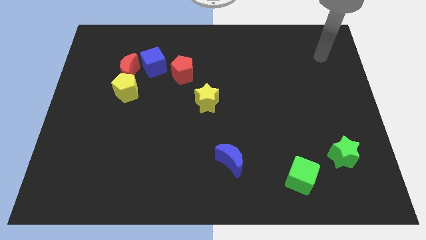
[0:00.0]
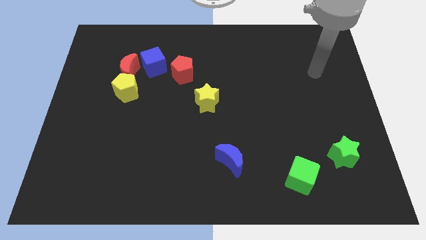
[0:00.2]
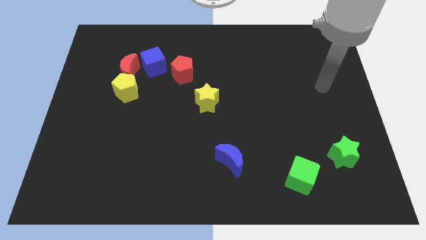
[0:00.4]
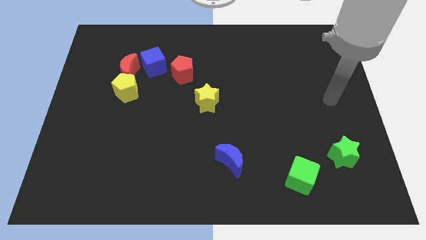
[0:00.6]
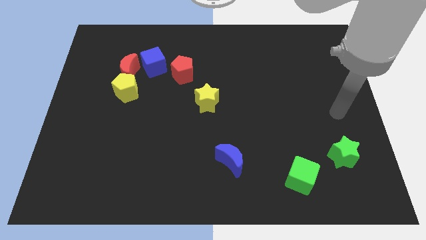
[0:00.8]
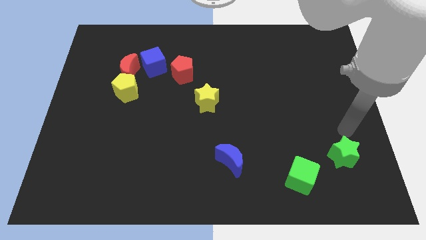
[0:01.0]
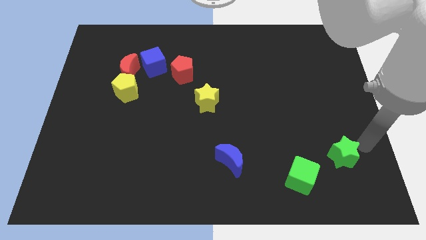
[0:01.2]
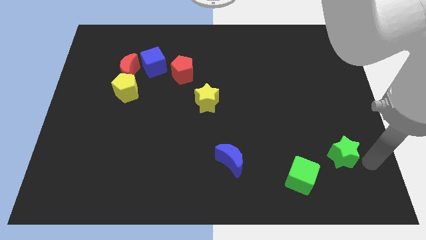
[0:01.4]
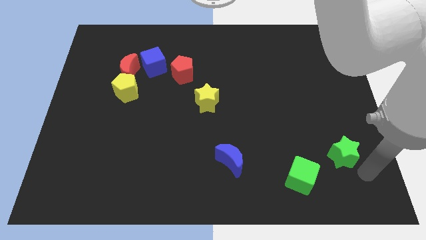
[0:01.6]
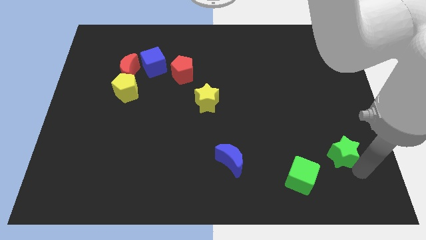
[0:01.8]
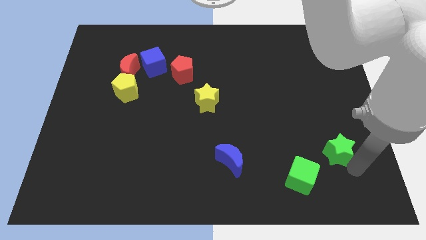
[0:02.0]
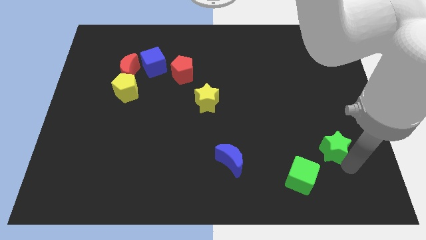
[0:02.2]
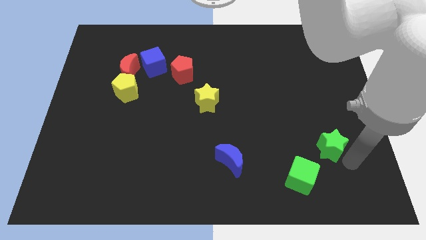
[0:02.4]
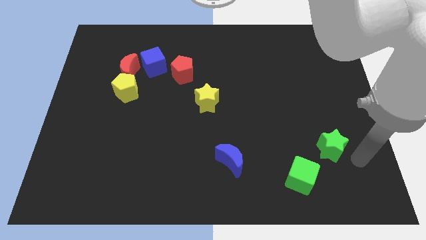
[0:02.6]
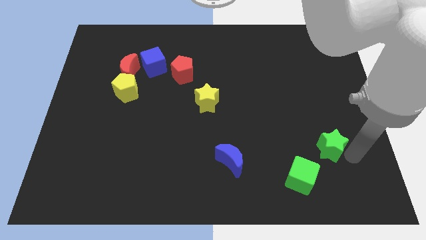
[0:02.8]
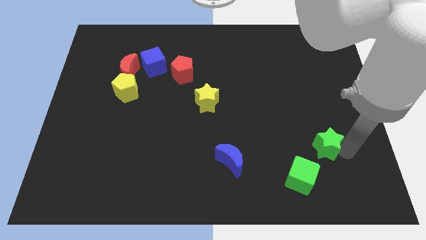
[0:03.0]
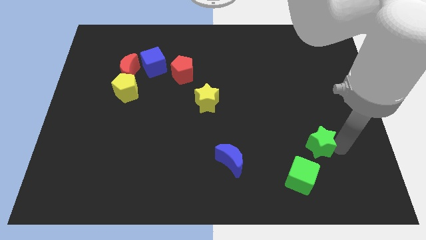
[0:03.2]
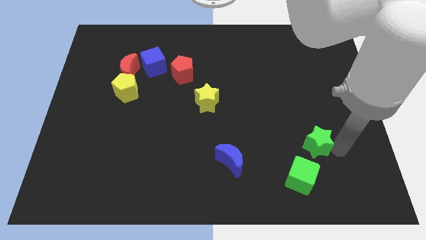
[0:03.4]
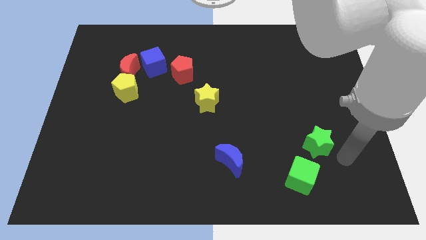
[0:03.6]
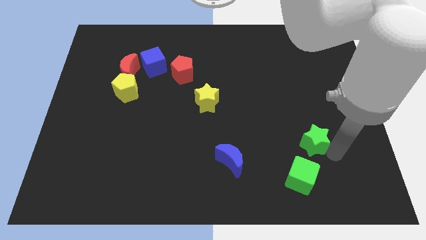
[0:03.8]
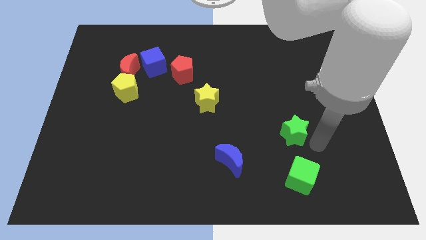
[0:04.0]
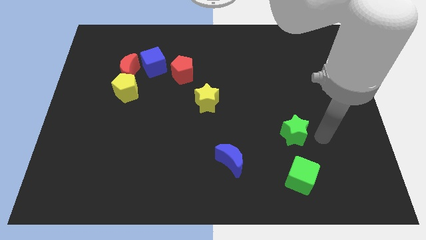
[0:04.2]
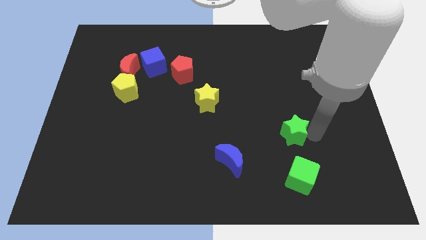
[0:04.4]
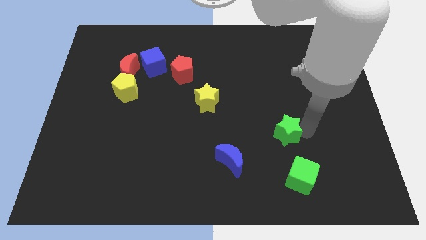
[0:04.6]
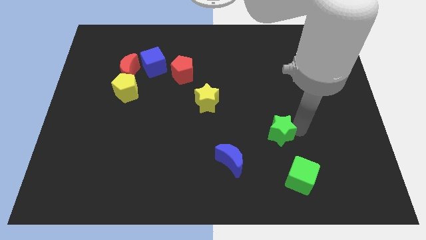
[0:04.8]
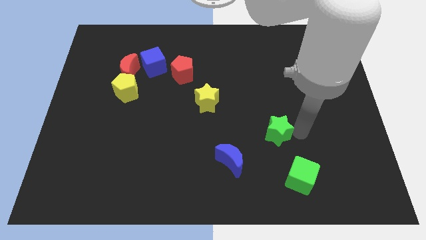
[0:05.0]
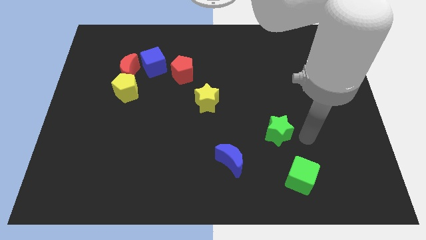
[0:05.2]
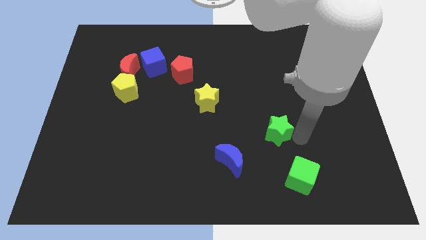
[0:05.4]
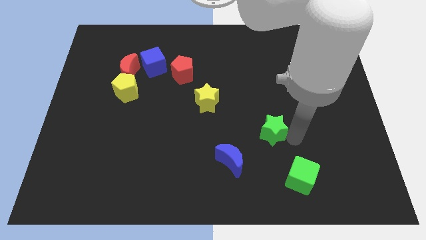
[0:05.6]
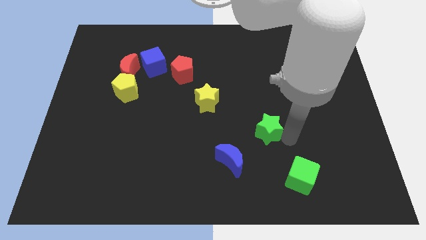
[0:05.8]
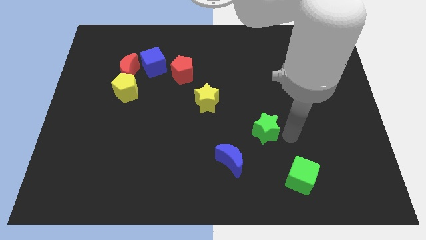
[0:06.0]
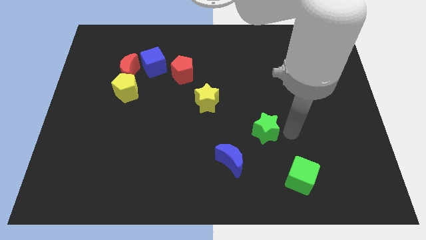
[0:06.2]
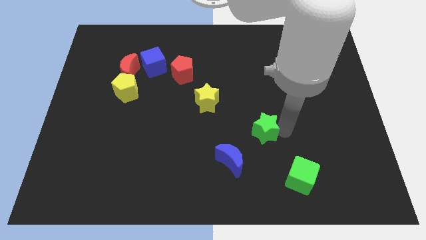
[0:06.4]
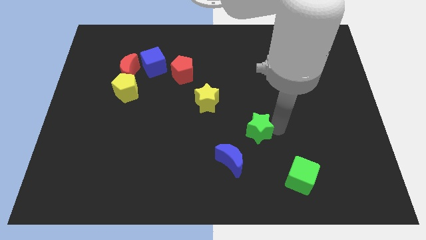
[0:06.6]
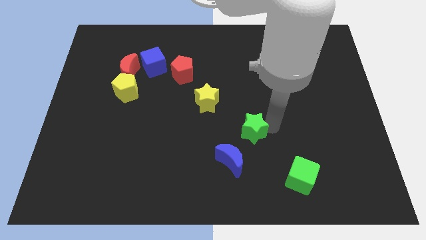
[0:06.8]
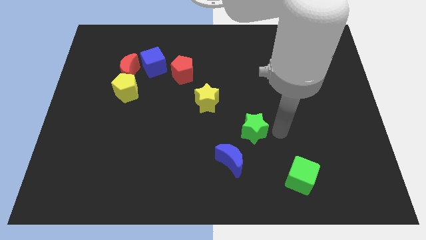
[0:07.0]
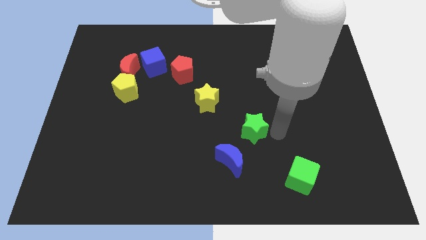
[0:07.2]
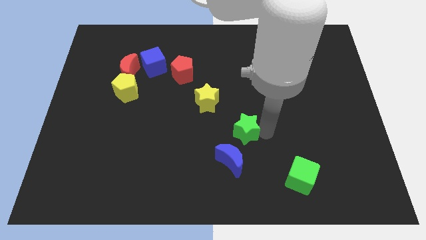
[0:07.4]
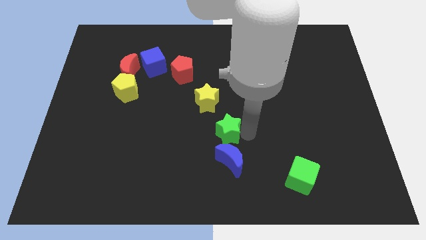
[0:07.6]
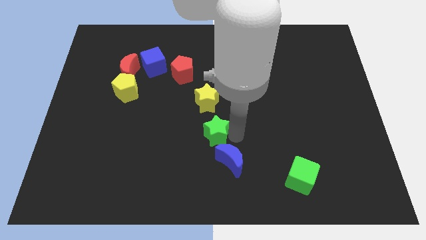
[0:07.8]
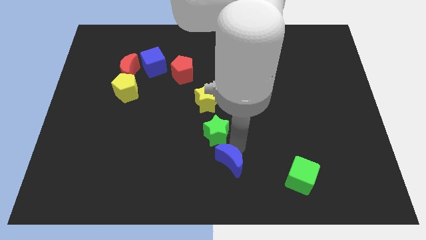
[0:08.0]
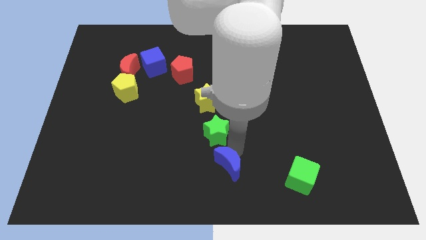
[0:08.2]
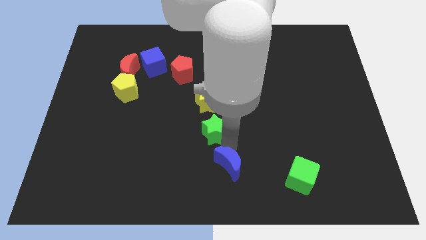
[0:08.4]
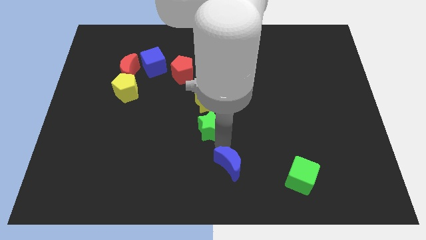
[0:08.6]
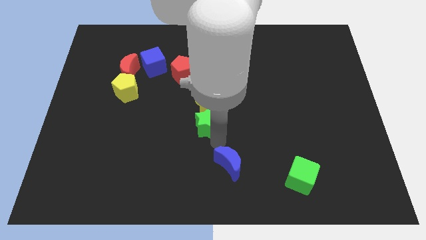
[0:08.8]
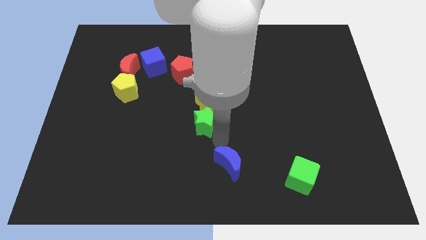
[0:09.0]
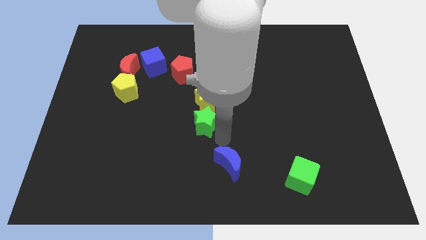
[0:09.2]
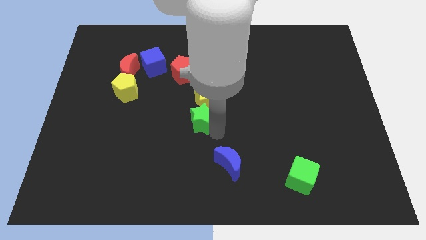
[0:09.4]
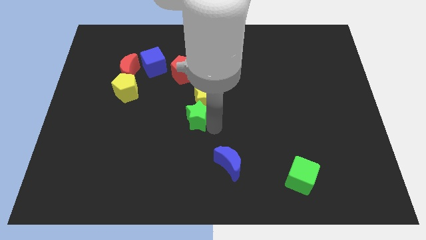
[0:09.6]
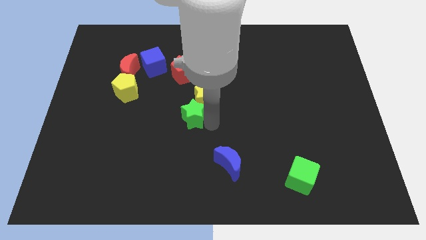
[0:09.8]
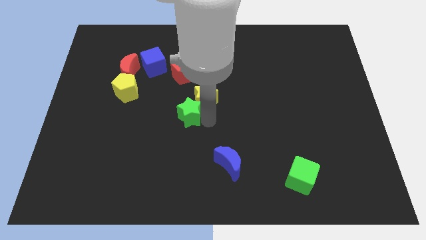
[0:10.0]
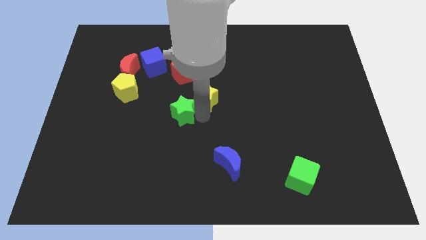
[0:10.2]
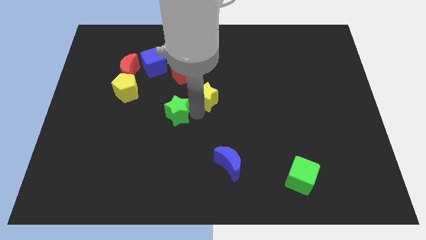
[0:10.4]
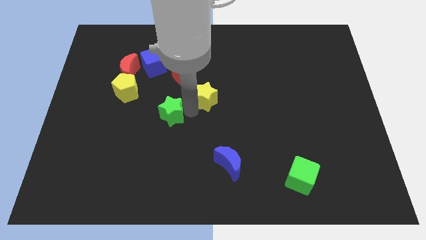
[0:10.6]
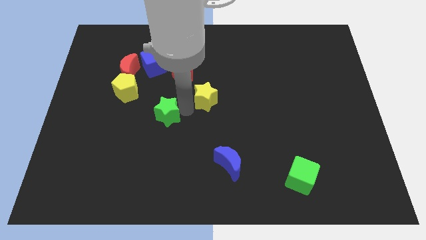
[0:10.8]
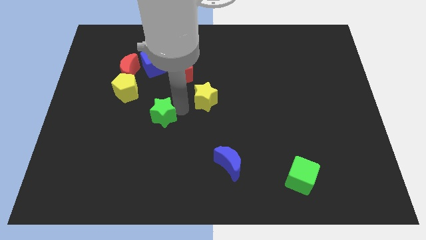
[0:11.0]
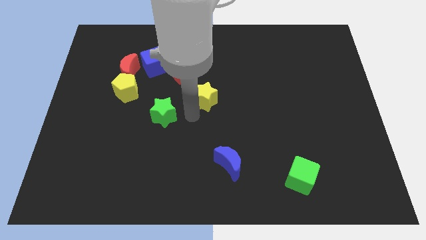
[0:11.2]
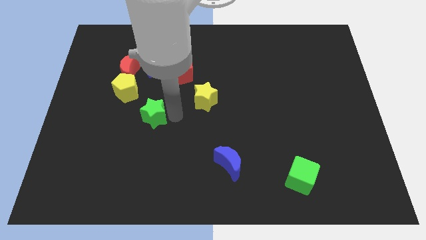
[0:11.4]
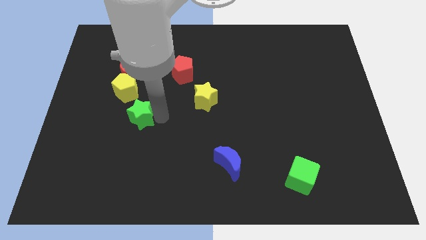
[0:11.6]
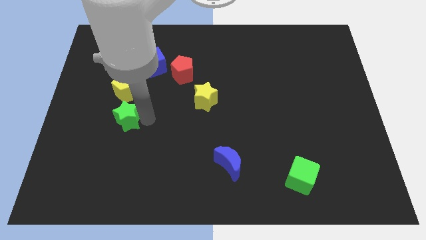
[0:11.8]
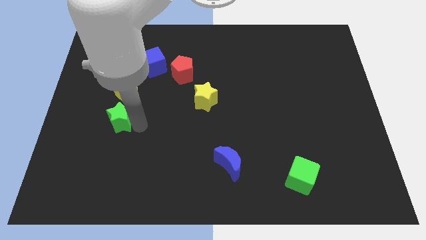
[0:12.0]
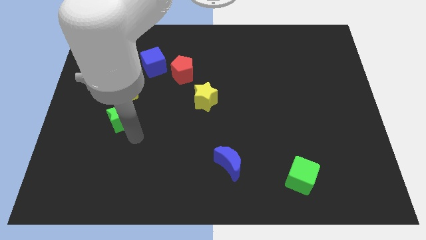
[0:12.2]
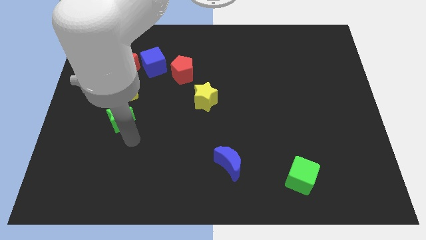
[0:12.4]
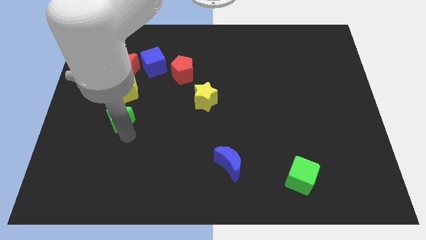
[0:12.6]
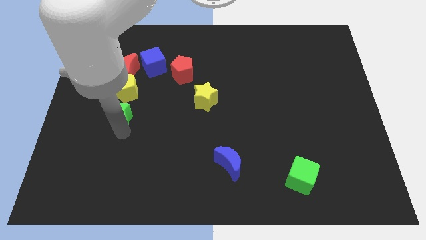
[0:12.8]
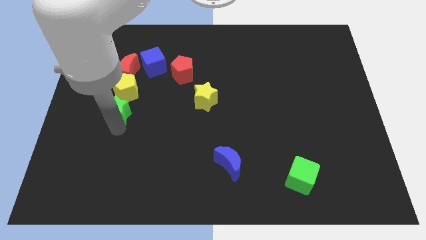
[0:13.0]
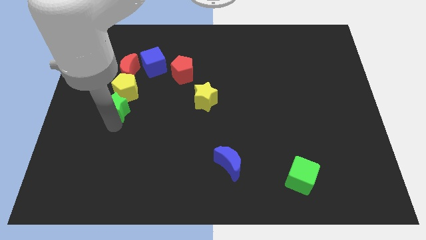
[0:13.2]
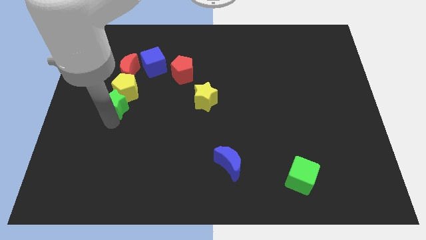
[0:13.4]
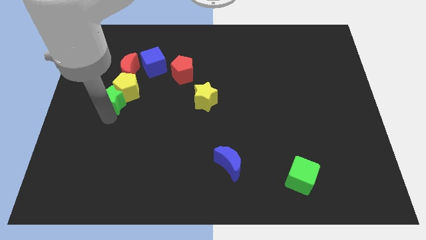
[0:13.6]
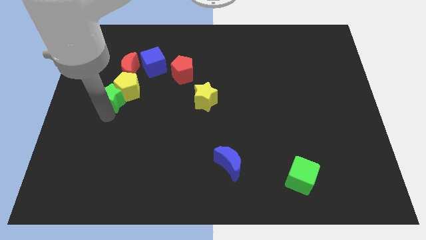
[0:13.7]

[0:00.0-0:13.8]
push the green star to the bottom left of the red moon
